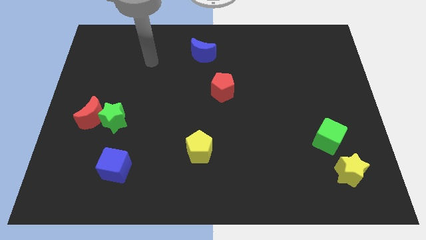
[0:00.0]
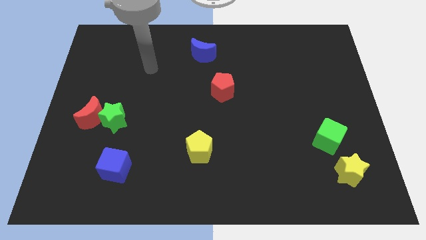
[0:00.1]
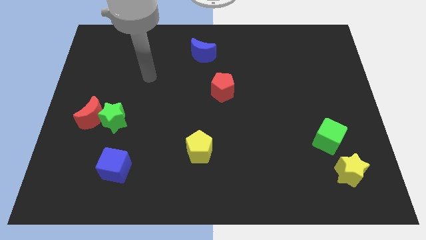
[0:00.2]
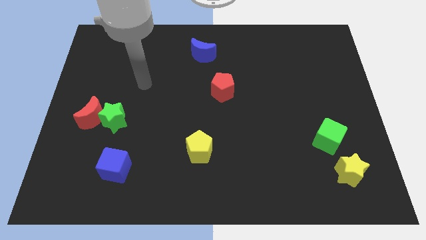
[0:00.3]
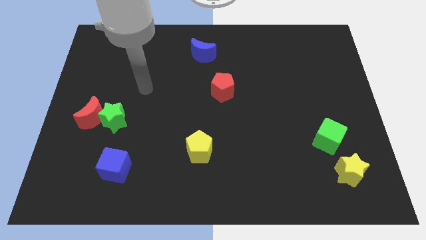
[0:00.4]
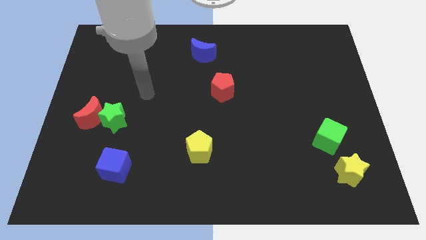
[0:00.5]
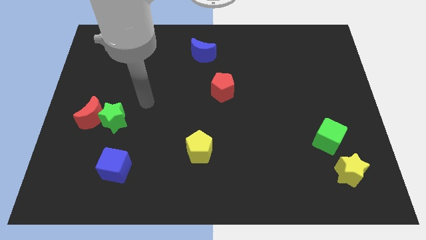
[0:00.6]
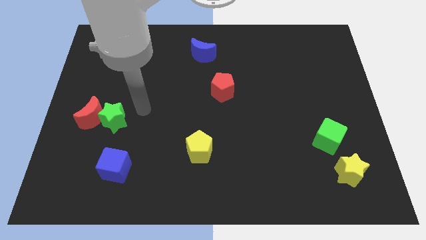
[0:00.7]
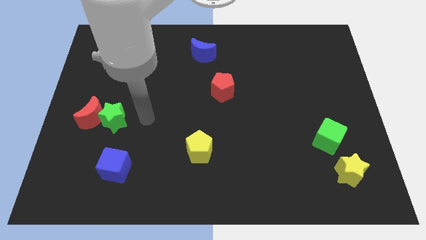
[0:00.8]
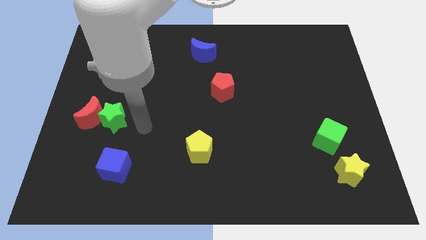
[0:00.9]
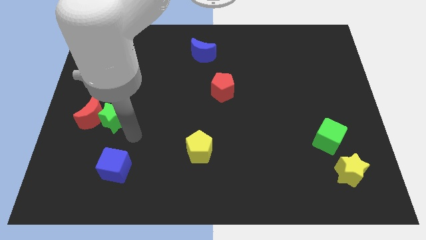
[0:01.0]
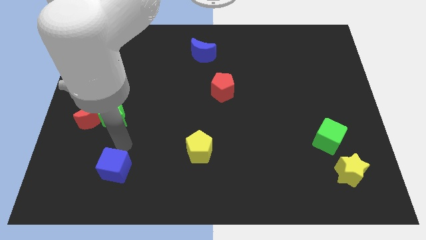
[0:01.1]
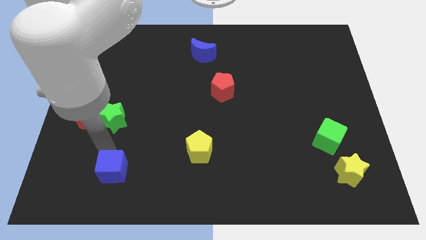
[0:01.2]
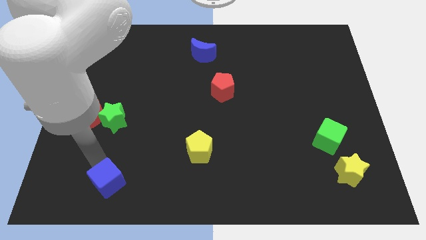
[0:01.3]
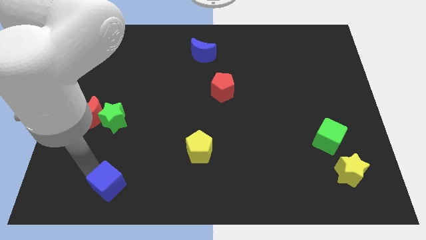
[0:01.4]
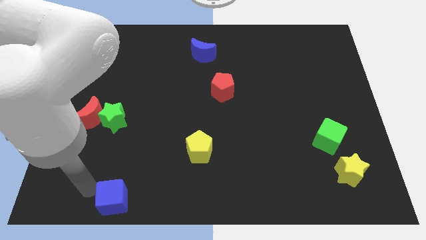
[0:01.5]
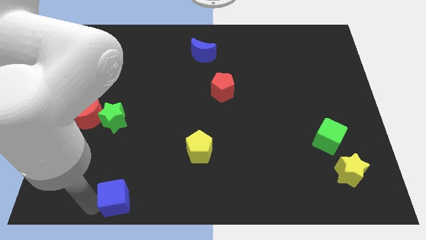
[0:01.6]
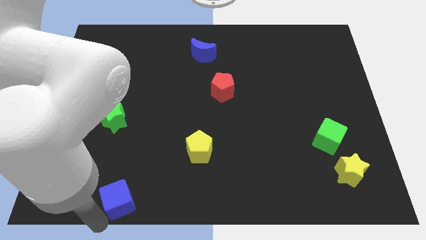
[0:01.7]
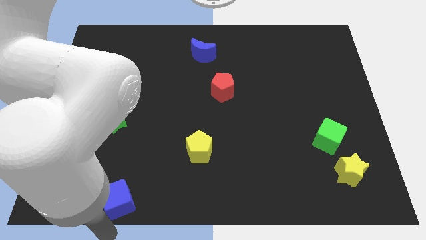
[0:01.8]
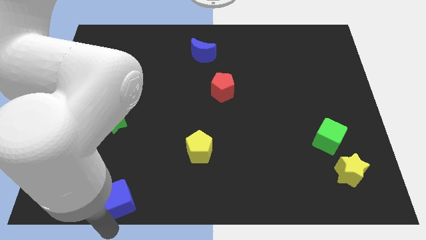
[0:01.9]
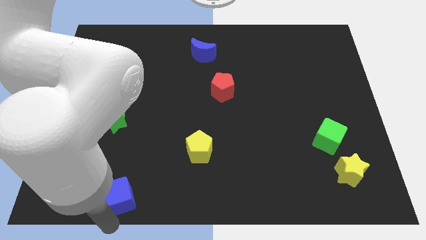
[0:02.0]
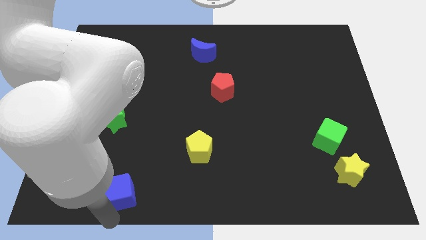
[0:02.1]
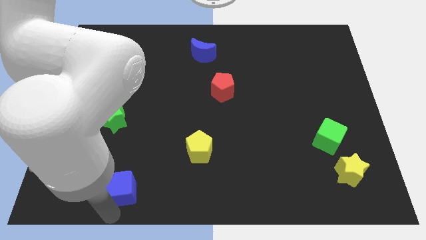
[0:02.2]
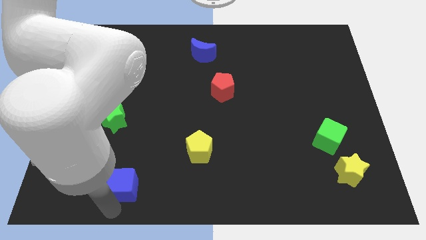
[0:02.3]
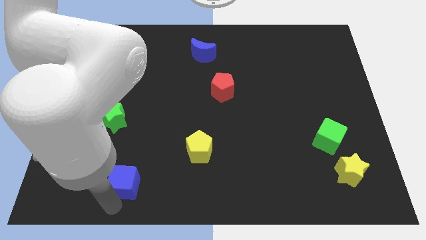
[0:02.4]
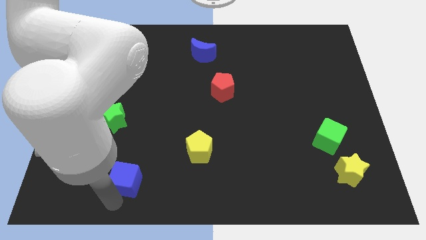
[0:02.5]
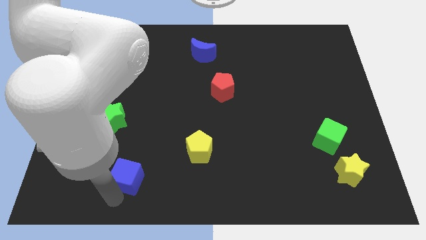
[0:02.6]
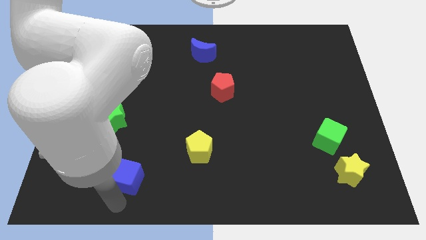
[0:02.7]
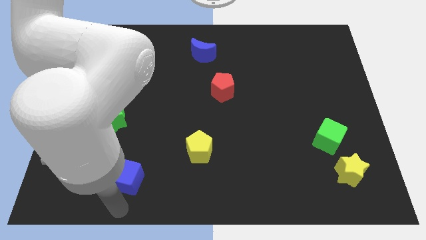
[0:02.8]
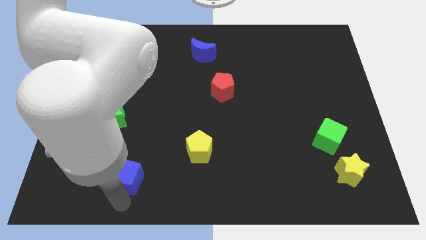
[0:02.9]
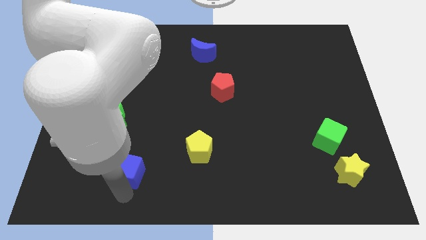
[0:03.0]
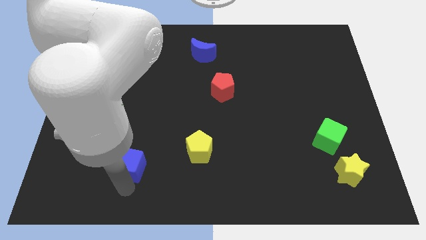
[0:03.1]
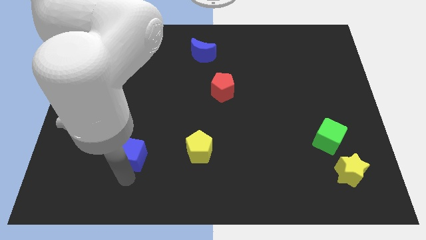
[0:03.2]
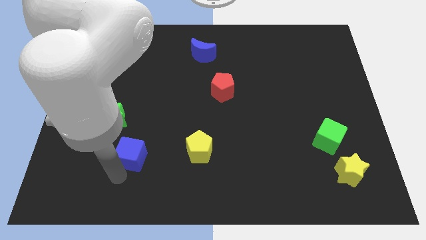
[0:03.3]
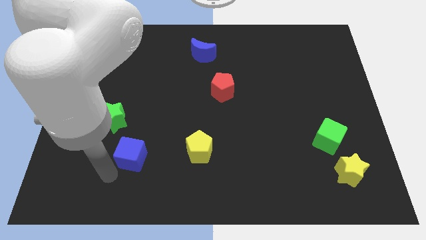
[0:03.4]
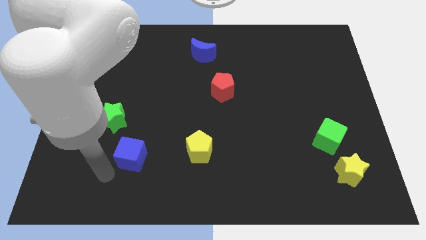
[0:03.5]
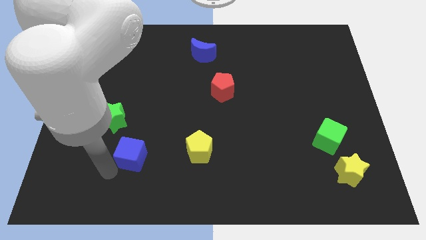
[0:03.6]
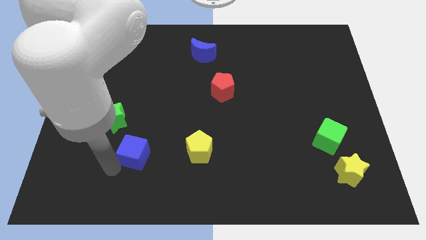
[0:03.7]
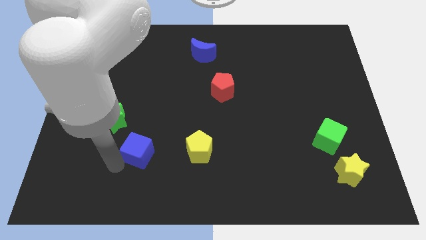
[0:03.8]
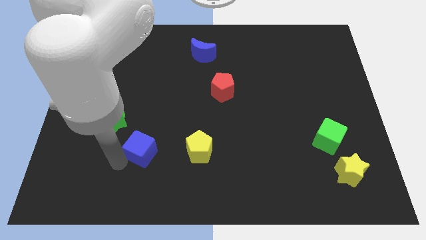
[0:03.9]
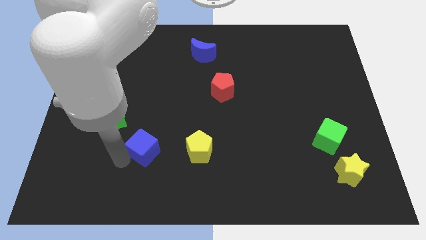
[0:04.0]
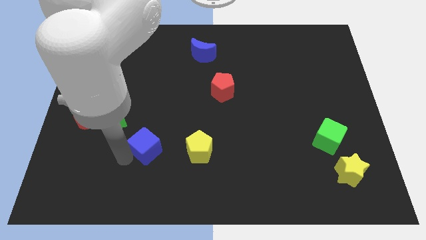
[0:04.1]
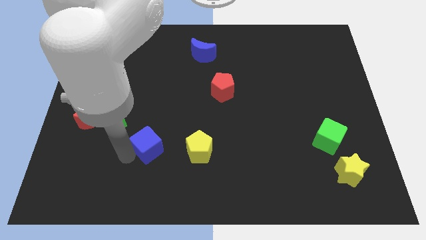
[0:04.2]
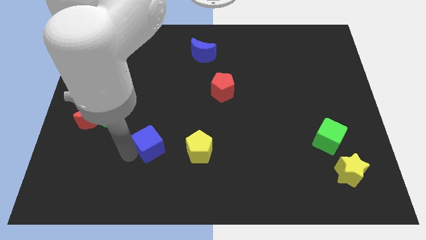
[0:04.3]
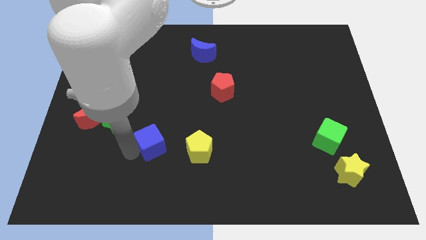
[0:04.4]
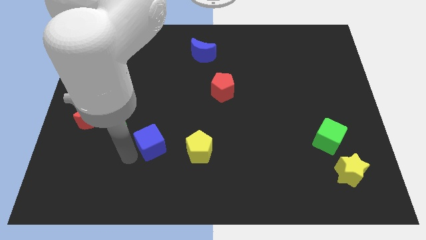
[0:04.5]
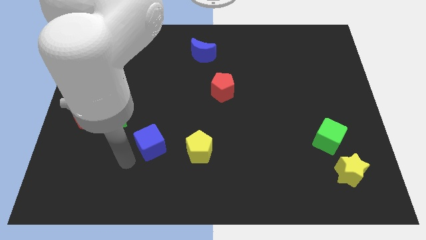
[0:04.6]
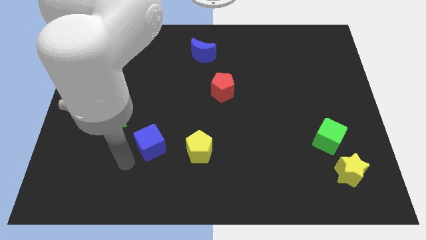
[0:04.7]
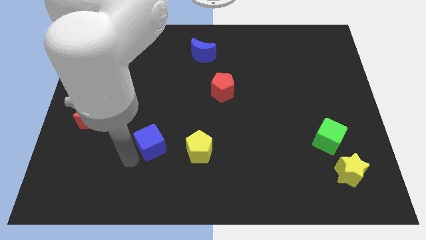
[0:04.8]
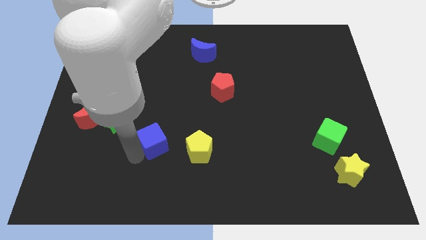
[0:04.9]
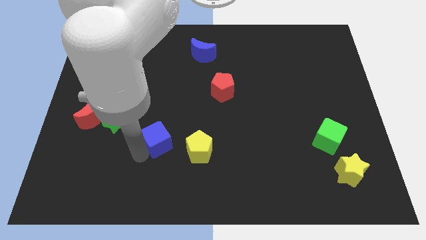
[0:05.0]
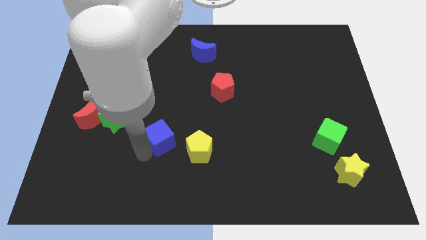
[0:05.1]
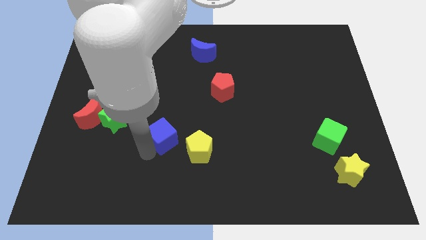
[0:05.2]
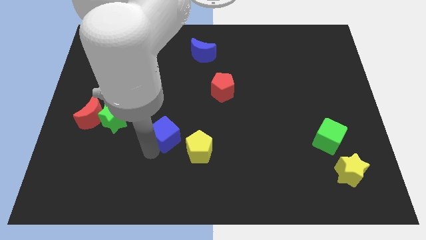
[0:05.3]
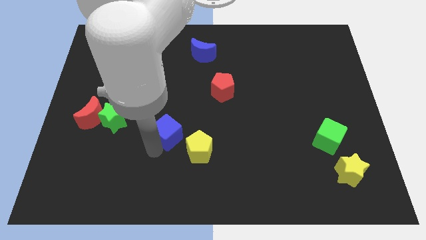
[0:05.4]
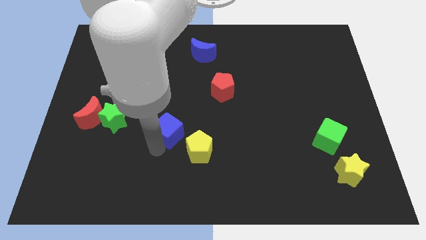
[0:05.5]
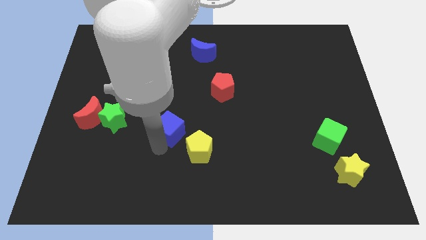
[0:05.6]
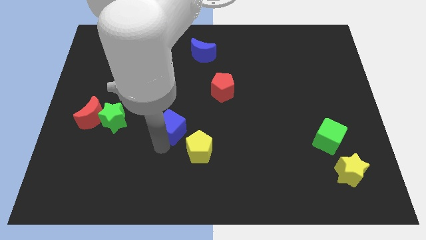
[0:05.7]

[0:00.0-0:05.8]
push the blue cube to the center of the board
